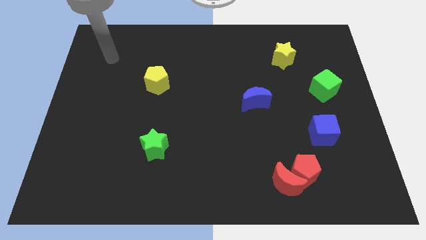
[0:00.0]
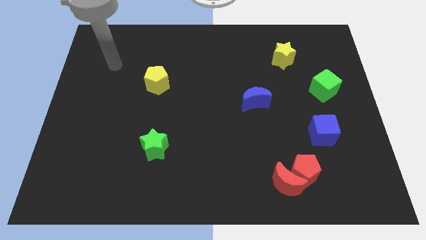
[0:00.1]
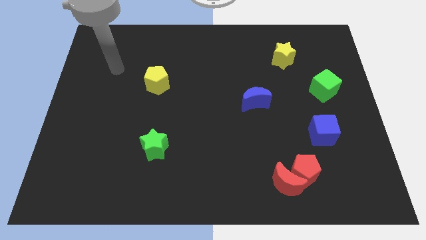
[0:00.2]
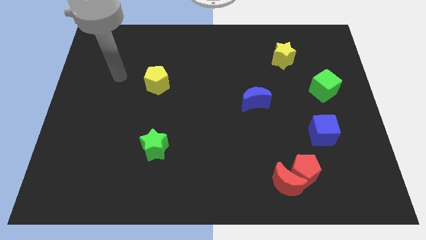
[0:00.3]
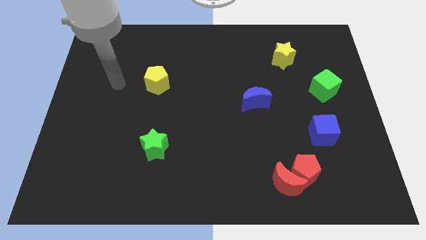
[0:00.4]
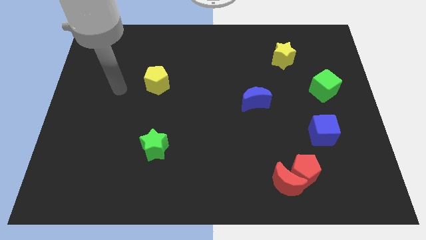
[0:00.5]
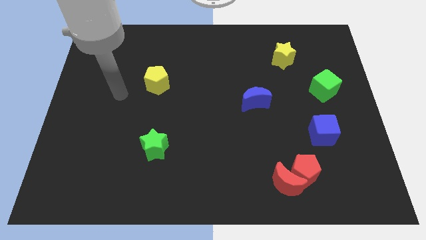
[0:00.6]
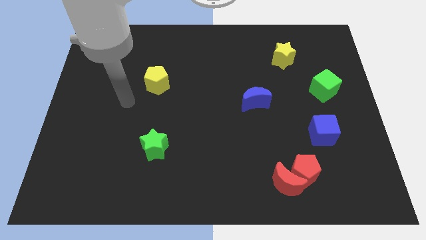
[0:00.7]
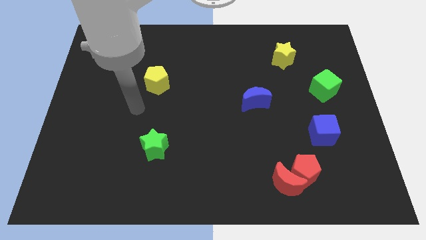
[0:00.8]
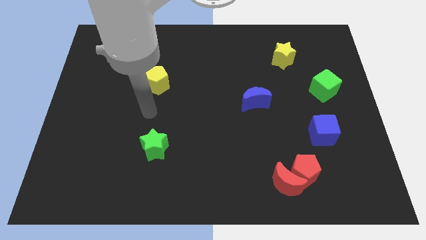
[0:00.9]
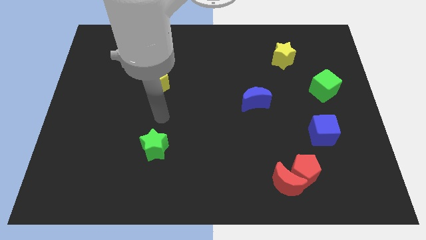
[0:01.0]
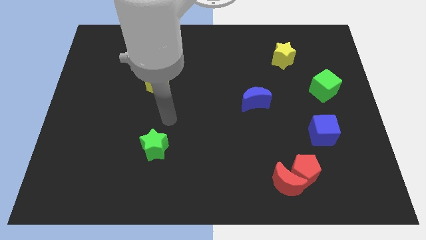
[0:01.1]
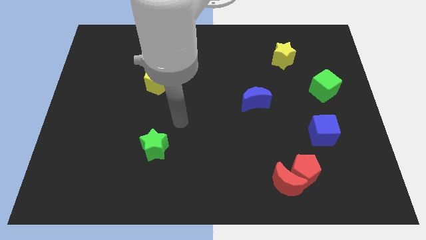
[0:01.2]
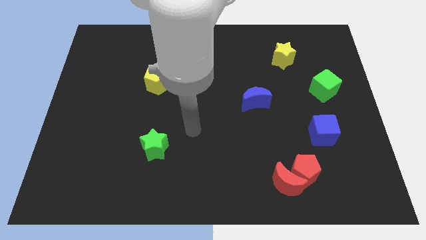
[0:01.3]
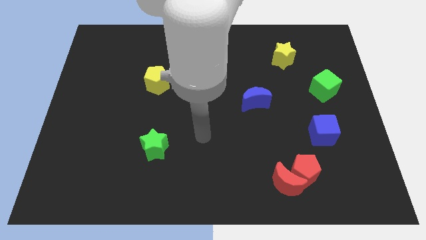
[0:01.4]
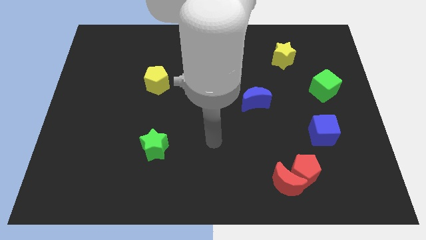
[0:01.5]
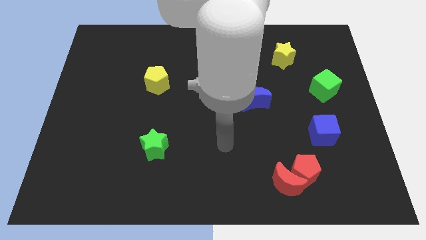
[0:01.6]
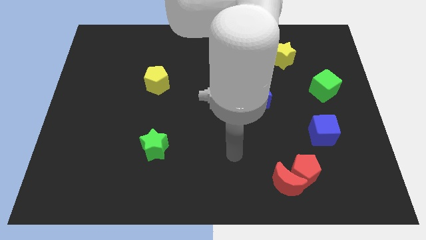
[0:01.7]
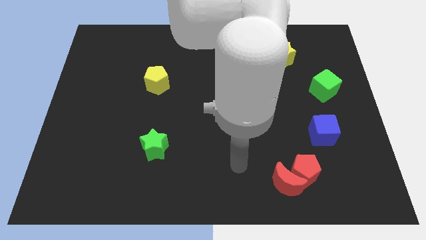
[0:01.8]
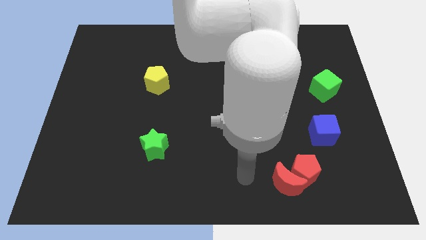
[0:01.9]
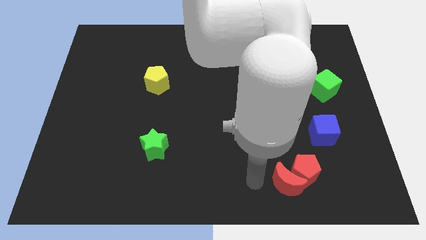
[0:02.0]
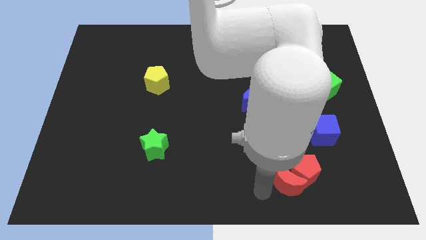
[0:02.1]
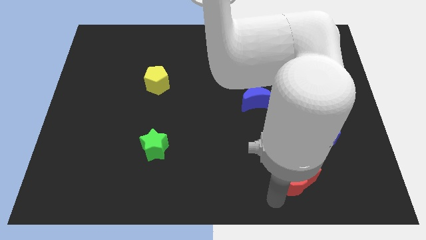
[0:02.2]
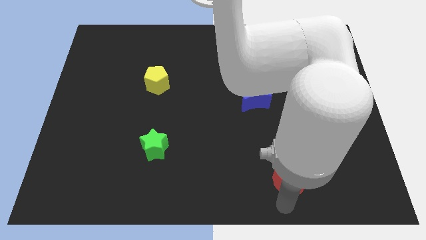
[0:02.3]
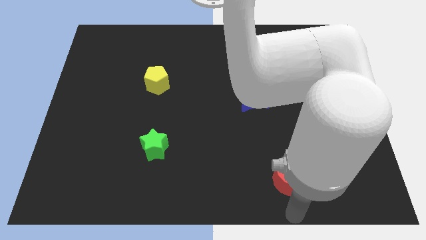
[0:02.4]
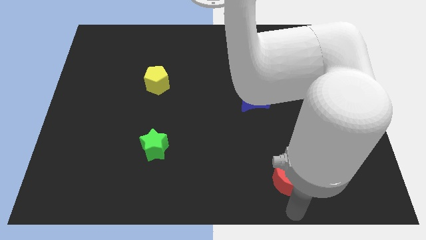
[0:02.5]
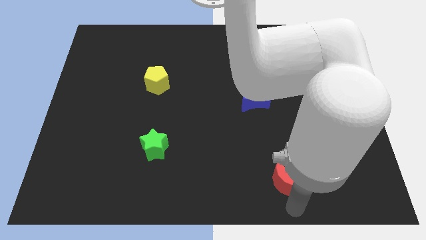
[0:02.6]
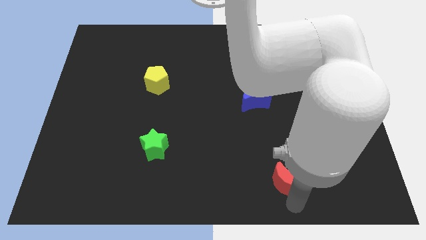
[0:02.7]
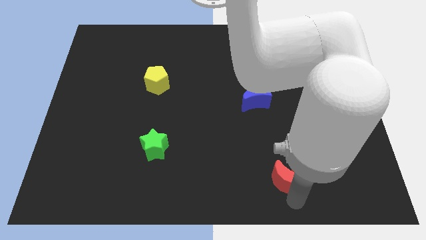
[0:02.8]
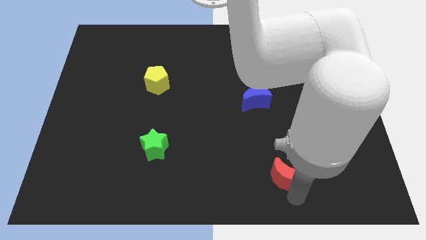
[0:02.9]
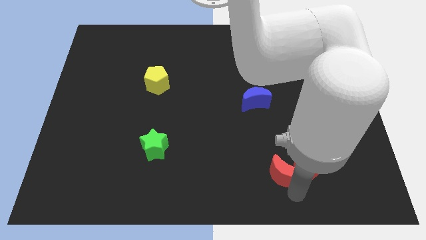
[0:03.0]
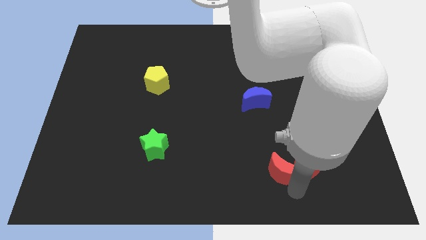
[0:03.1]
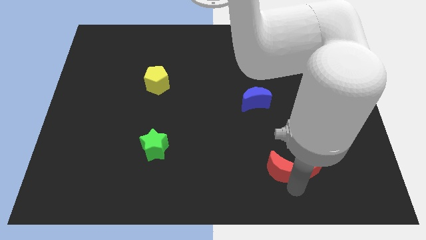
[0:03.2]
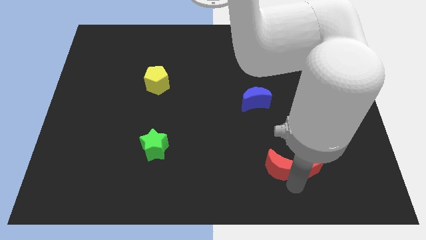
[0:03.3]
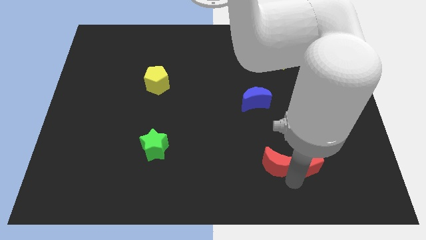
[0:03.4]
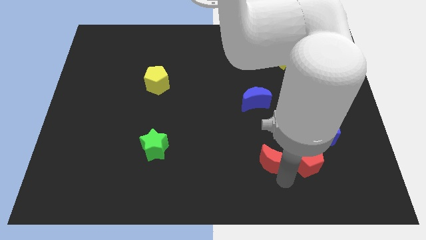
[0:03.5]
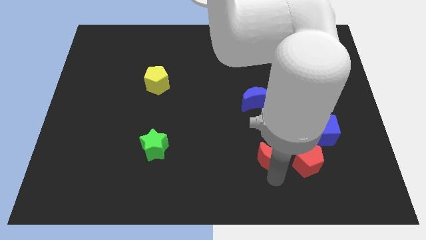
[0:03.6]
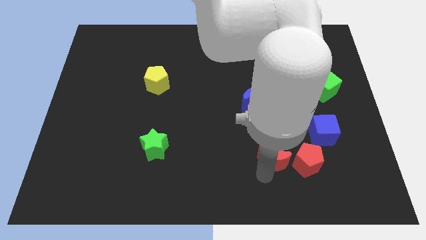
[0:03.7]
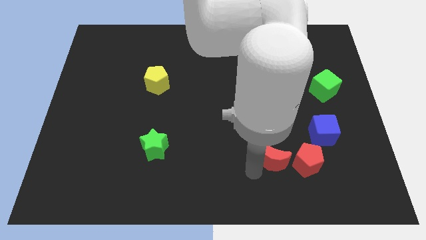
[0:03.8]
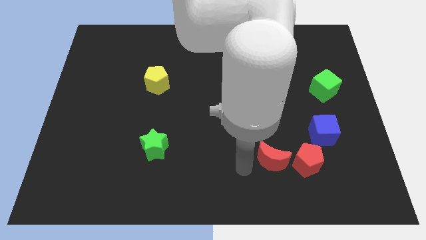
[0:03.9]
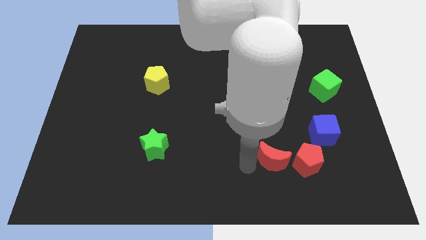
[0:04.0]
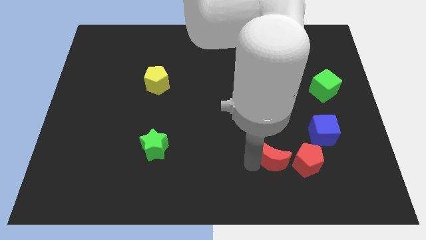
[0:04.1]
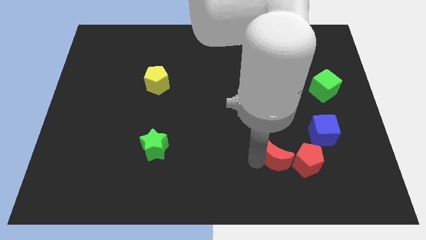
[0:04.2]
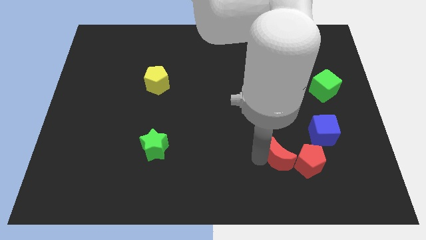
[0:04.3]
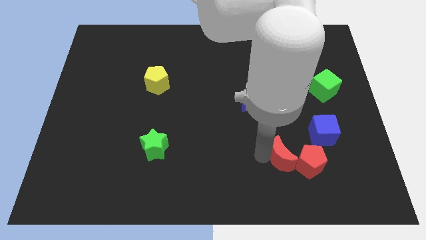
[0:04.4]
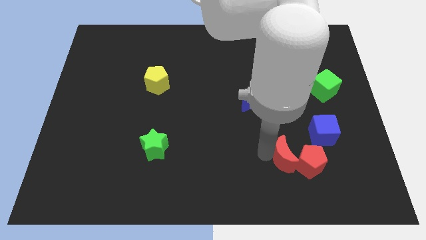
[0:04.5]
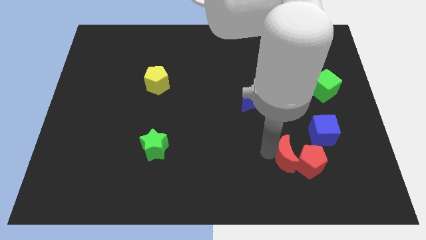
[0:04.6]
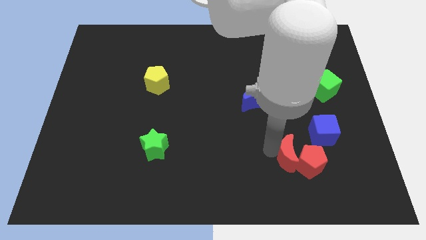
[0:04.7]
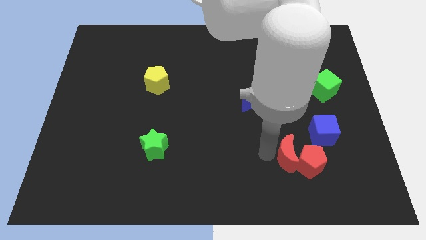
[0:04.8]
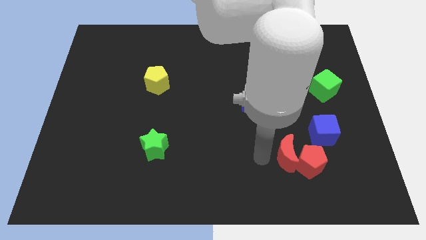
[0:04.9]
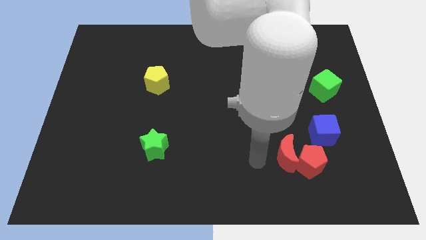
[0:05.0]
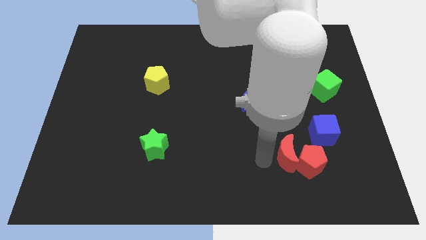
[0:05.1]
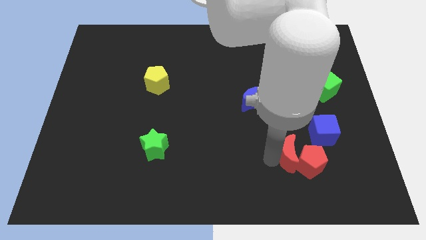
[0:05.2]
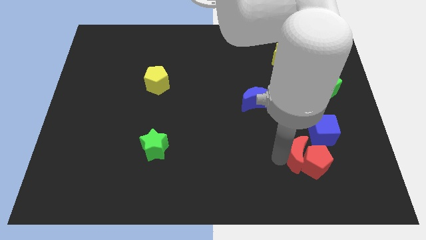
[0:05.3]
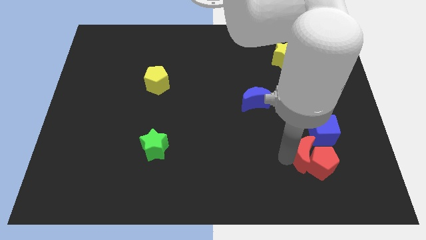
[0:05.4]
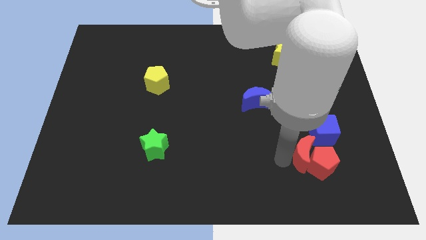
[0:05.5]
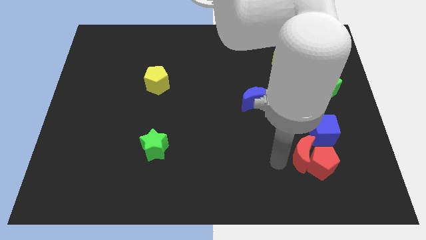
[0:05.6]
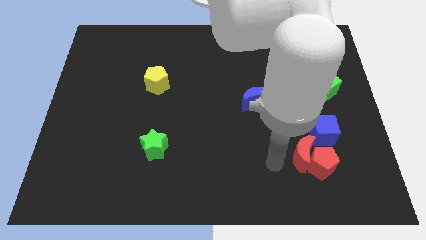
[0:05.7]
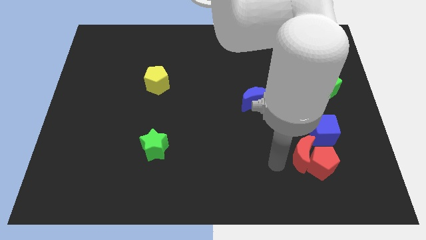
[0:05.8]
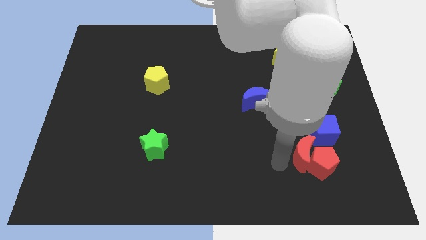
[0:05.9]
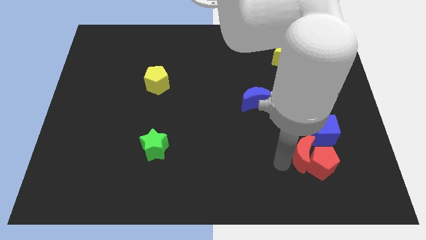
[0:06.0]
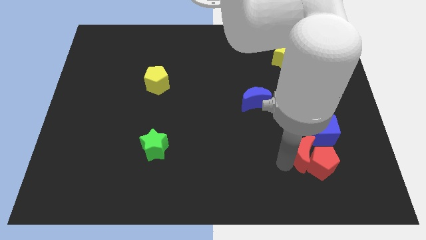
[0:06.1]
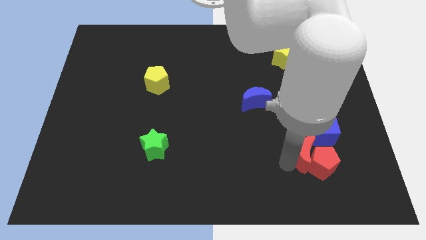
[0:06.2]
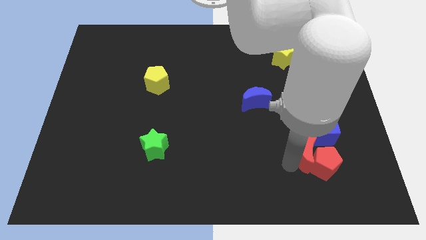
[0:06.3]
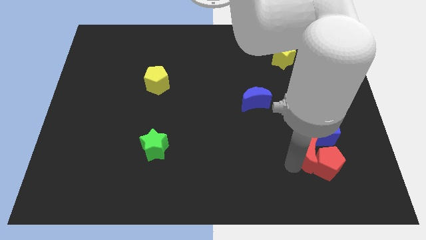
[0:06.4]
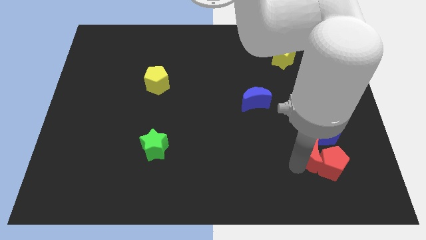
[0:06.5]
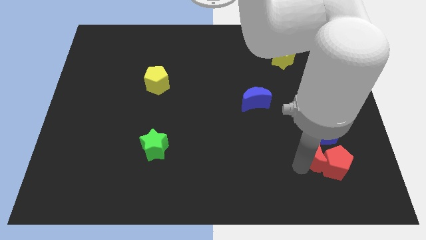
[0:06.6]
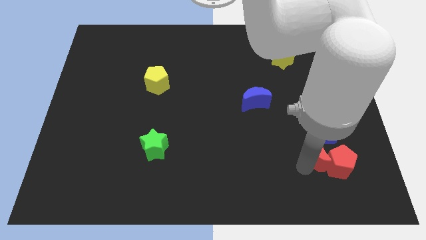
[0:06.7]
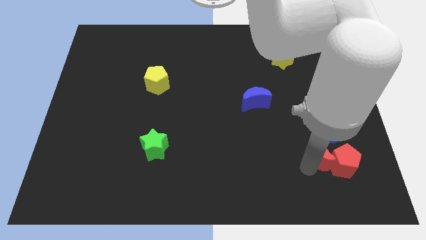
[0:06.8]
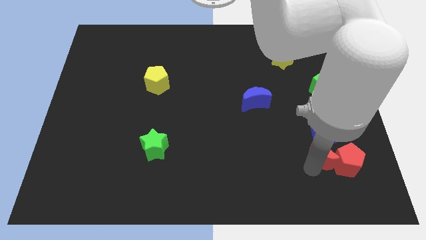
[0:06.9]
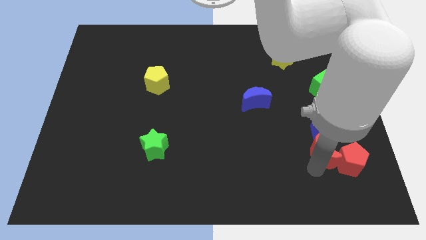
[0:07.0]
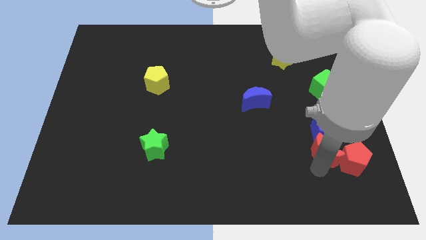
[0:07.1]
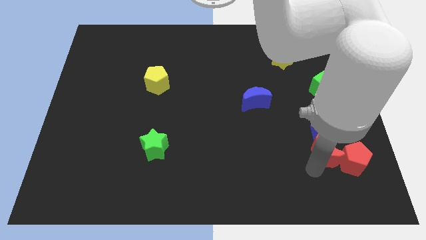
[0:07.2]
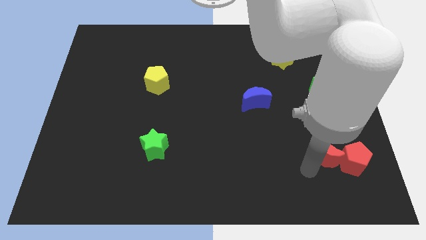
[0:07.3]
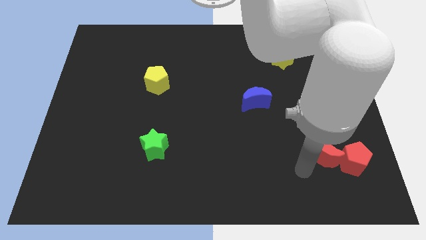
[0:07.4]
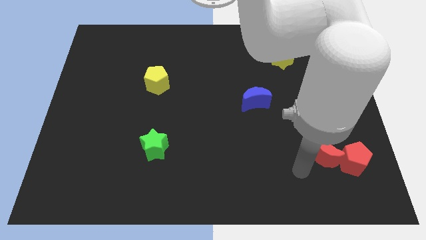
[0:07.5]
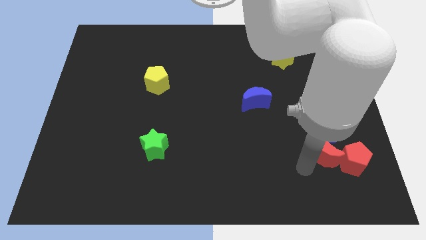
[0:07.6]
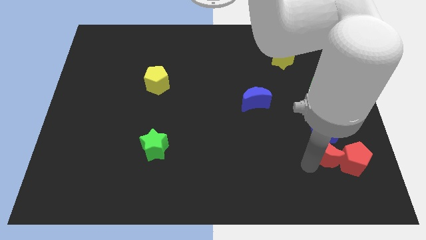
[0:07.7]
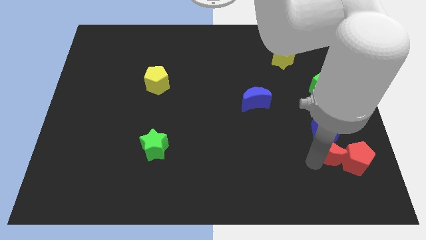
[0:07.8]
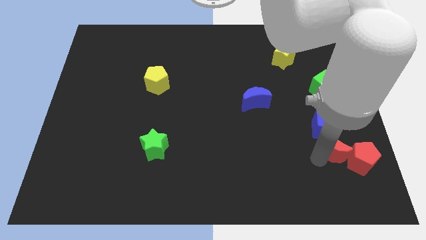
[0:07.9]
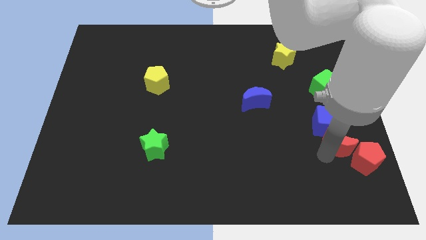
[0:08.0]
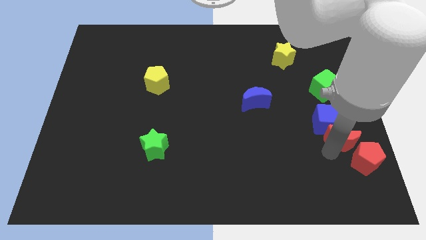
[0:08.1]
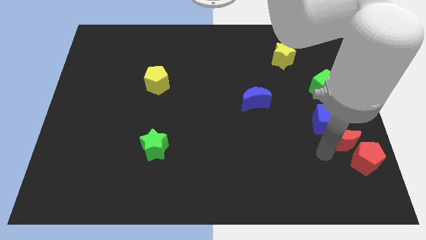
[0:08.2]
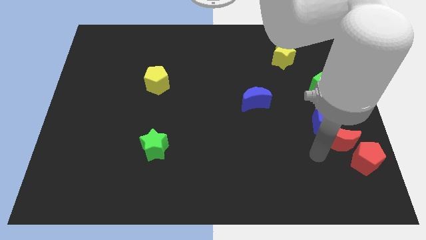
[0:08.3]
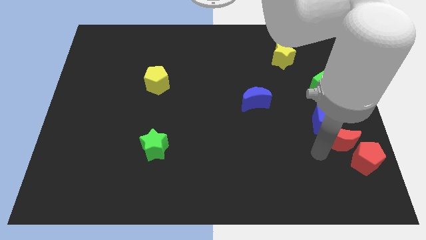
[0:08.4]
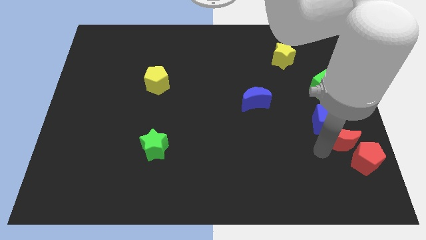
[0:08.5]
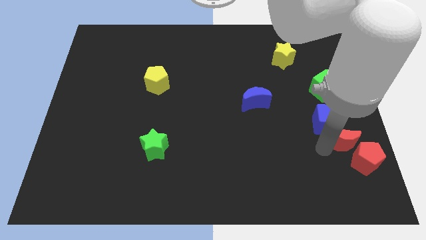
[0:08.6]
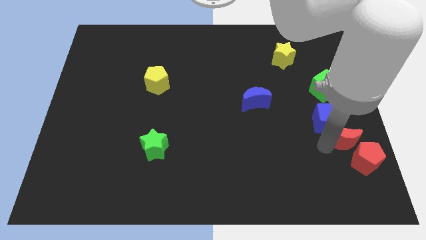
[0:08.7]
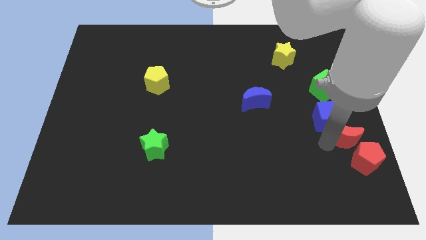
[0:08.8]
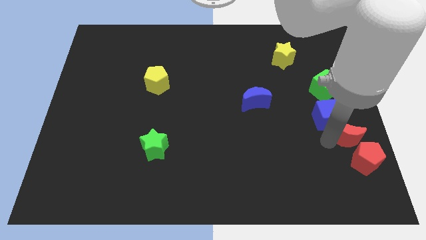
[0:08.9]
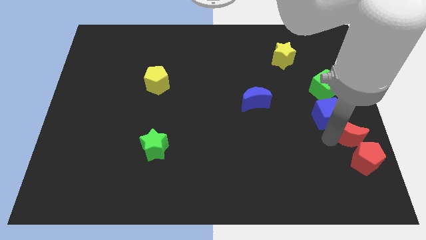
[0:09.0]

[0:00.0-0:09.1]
push the red moon to the right side
